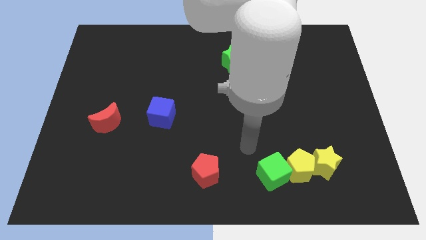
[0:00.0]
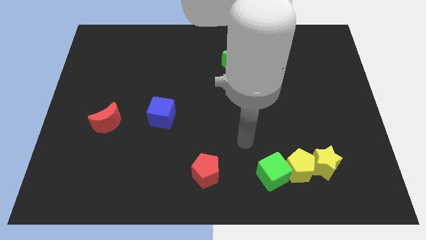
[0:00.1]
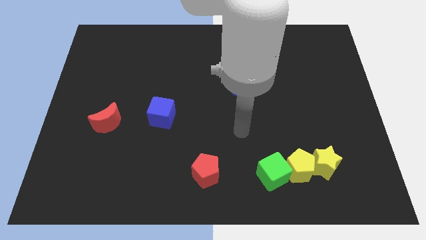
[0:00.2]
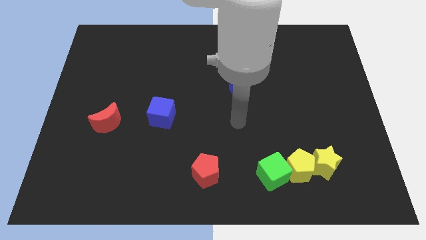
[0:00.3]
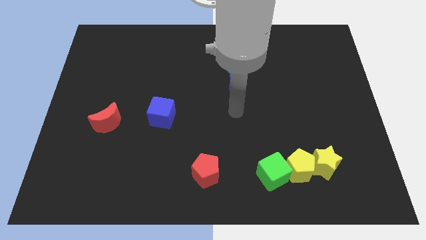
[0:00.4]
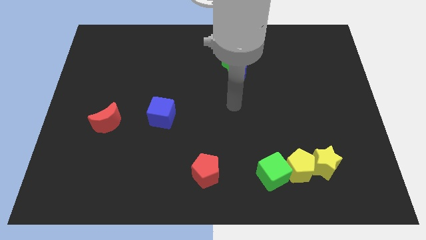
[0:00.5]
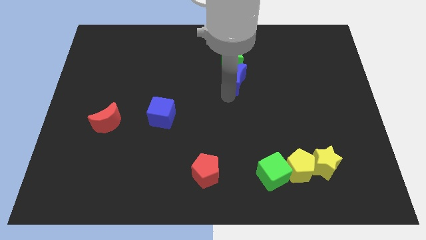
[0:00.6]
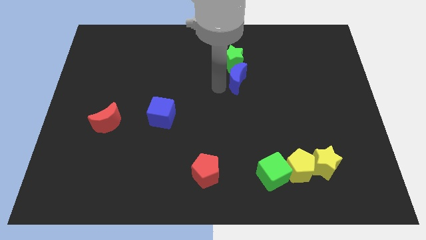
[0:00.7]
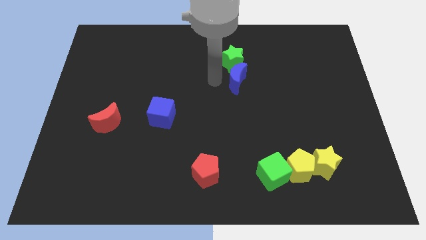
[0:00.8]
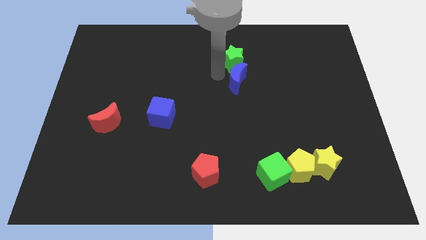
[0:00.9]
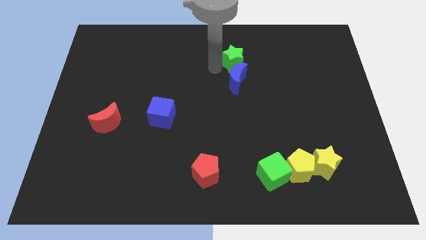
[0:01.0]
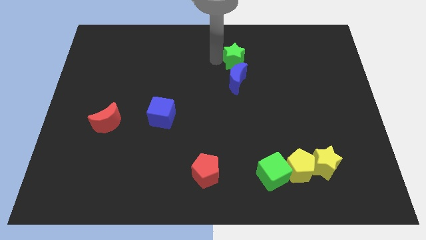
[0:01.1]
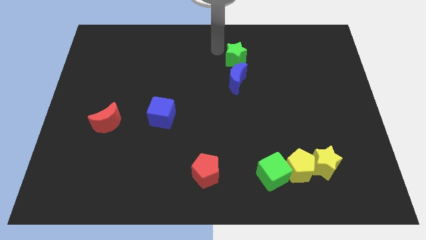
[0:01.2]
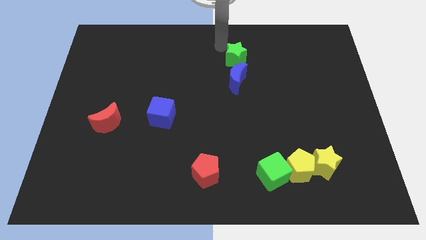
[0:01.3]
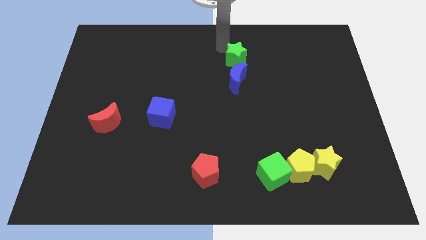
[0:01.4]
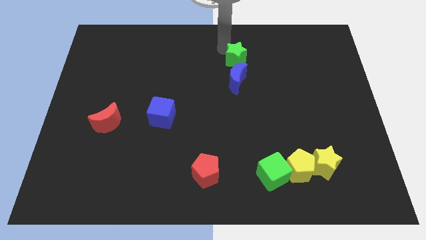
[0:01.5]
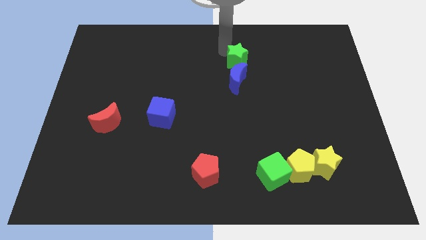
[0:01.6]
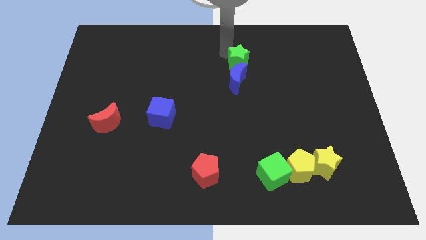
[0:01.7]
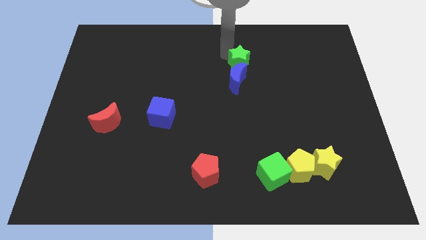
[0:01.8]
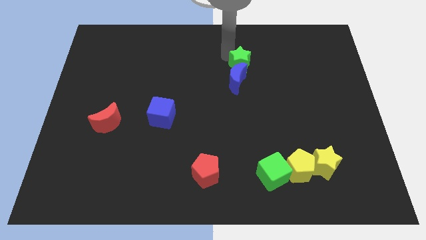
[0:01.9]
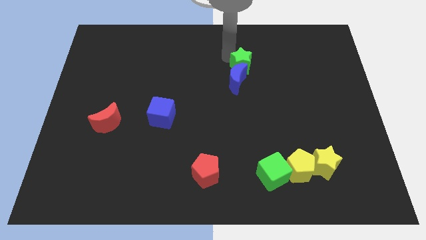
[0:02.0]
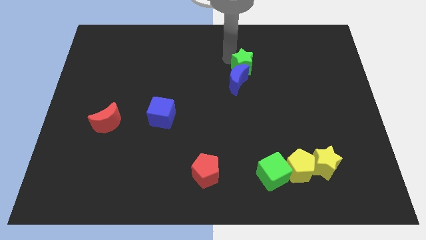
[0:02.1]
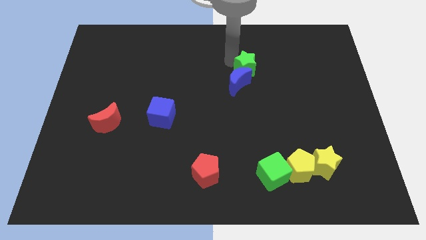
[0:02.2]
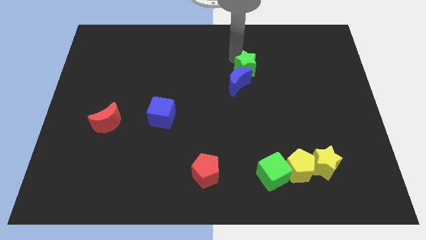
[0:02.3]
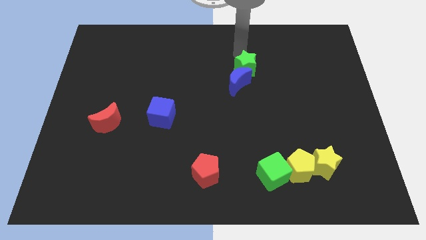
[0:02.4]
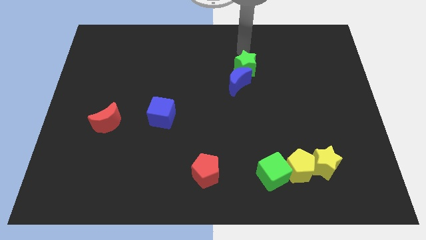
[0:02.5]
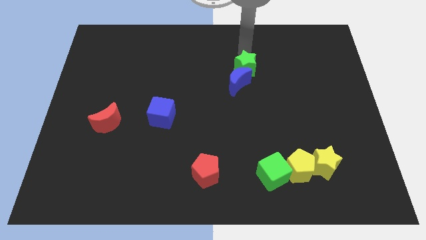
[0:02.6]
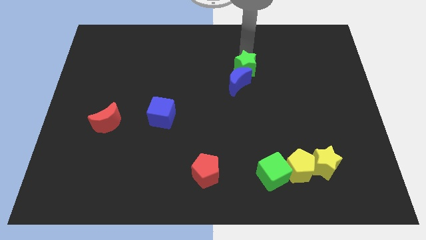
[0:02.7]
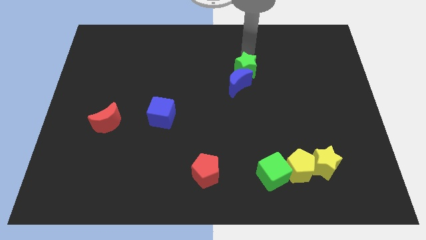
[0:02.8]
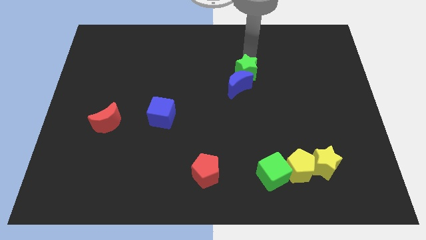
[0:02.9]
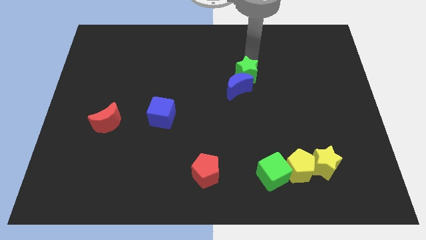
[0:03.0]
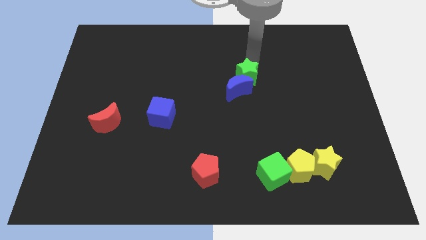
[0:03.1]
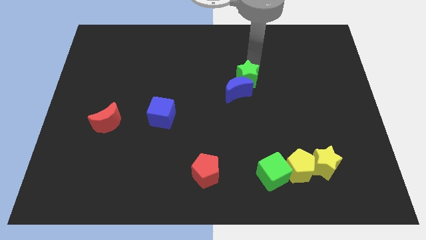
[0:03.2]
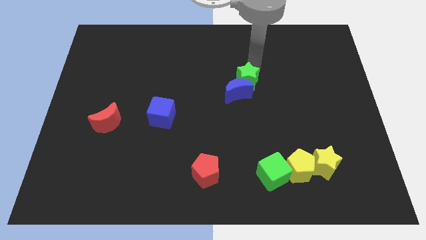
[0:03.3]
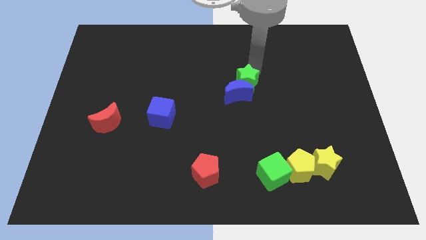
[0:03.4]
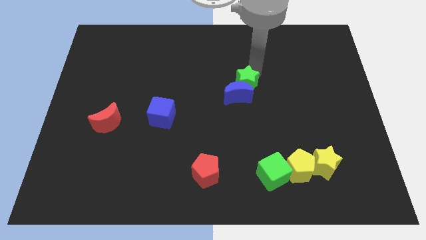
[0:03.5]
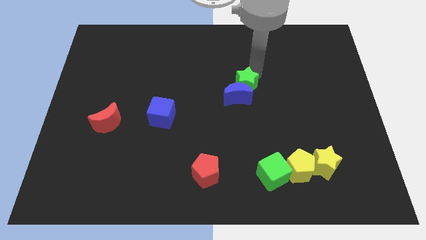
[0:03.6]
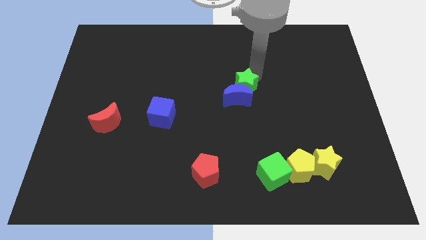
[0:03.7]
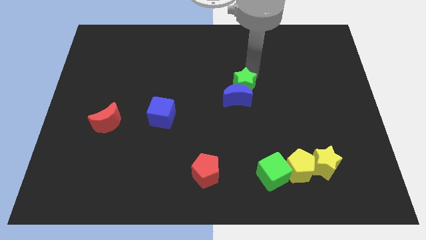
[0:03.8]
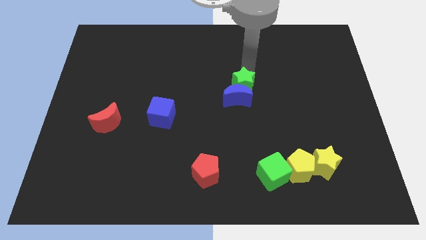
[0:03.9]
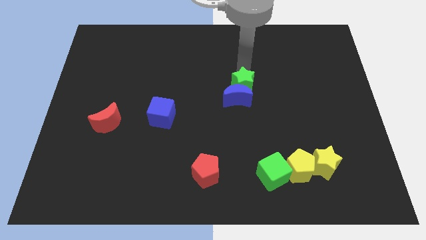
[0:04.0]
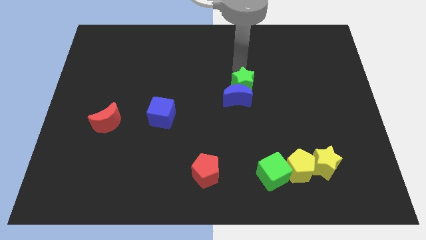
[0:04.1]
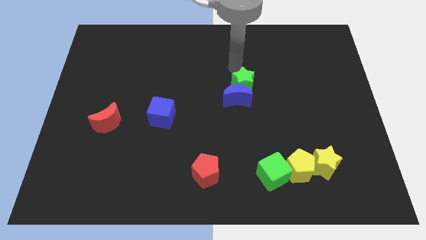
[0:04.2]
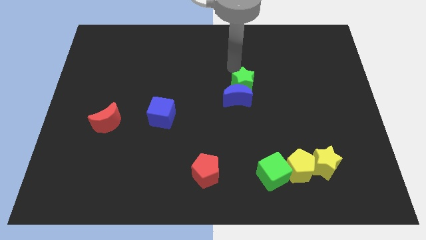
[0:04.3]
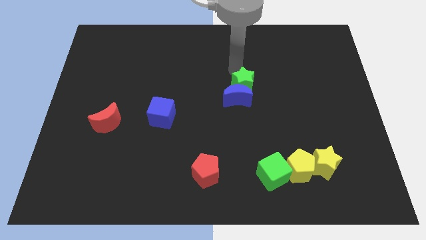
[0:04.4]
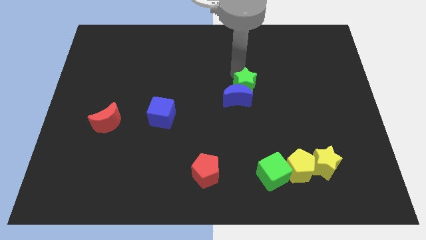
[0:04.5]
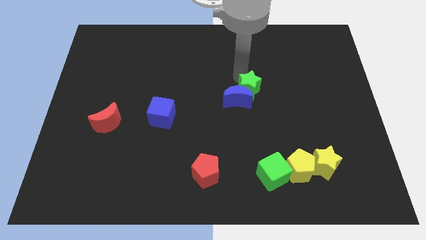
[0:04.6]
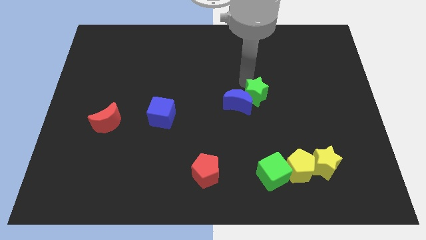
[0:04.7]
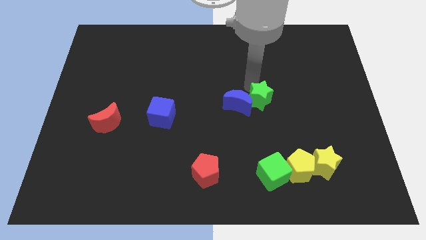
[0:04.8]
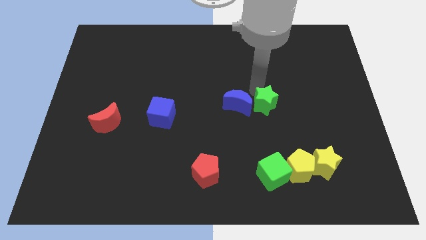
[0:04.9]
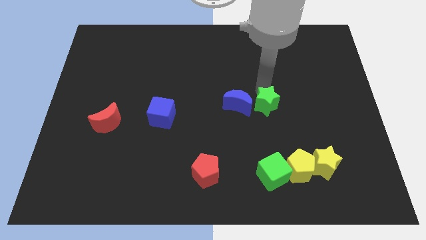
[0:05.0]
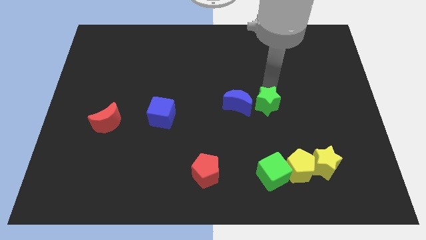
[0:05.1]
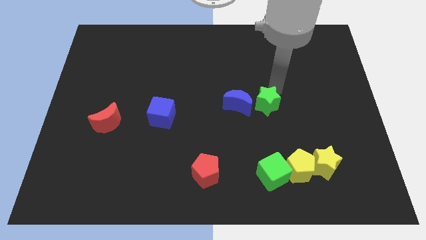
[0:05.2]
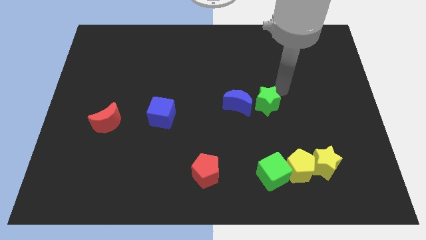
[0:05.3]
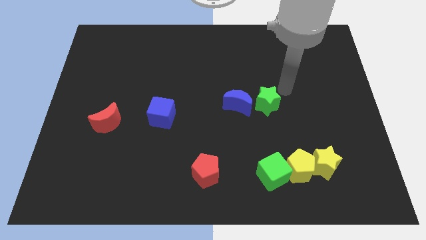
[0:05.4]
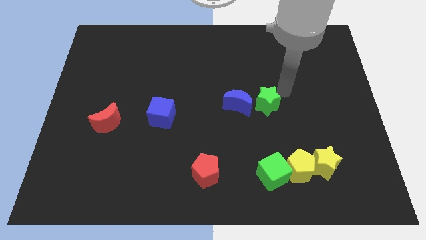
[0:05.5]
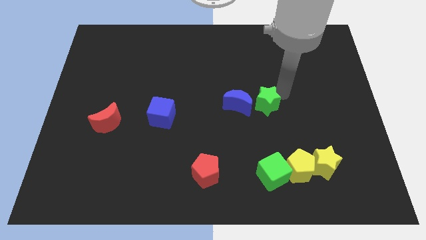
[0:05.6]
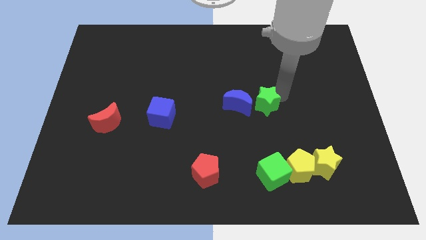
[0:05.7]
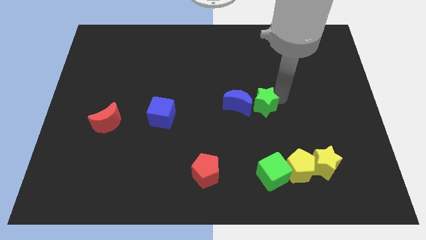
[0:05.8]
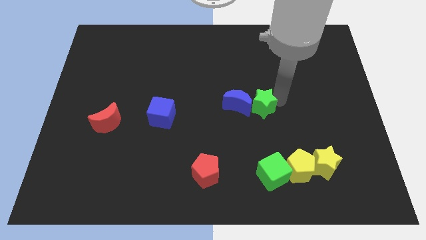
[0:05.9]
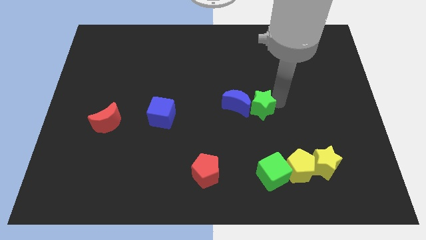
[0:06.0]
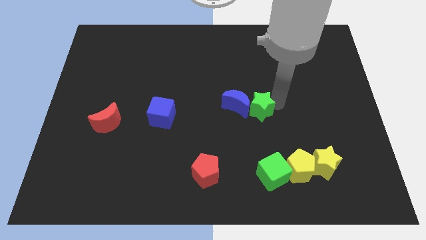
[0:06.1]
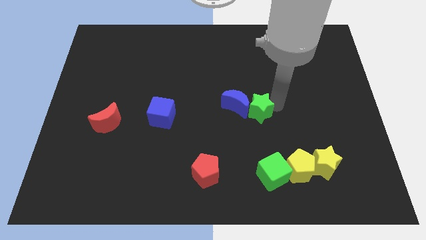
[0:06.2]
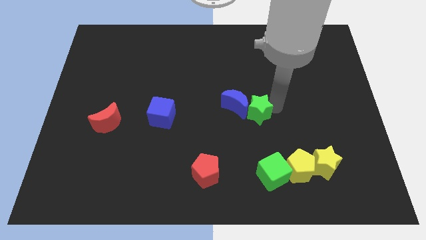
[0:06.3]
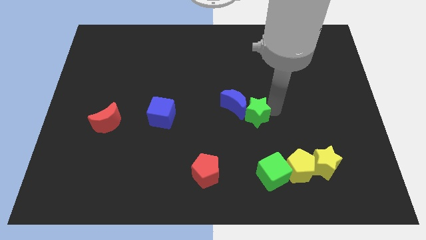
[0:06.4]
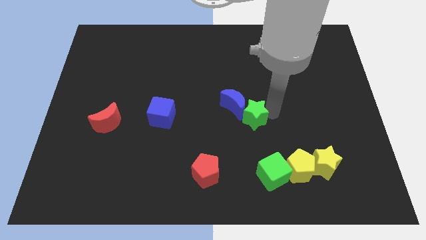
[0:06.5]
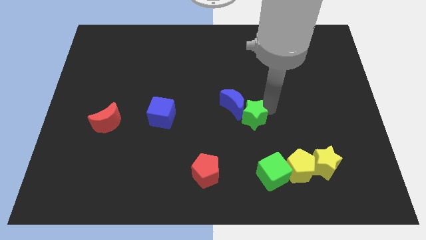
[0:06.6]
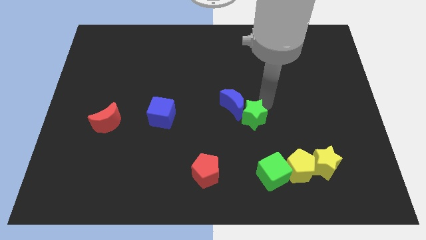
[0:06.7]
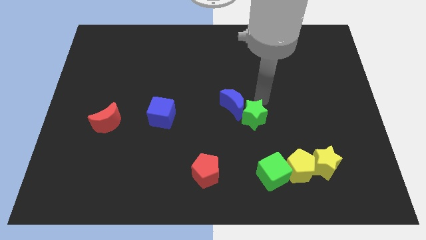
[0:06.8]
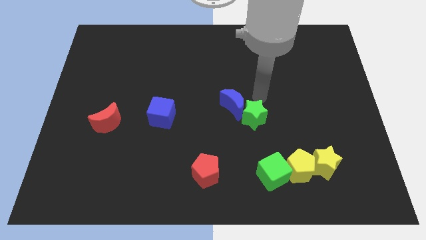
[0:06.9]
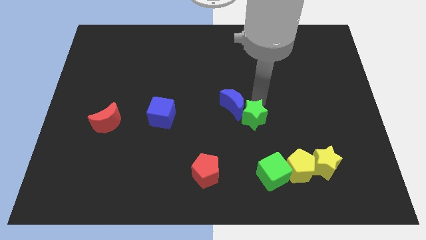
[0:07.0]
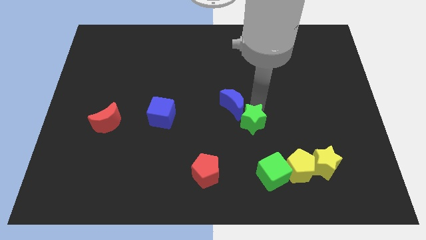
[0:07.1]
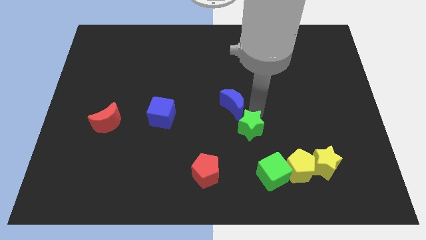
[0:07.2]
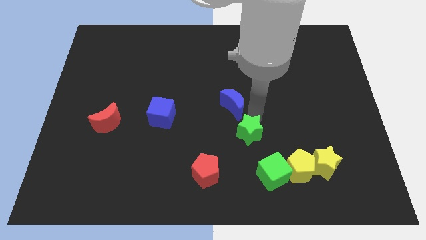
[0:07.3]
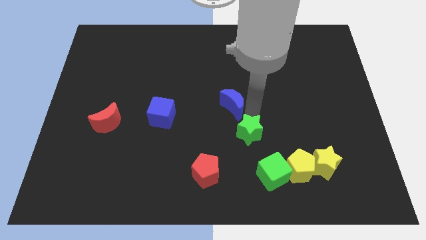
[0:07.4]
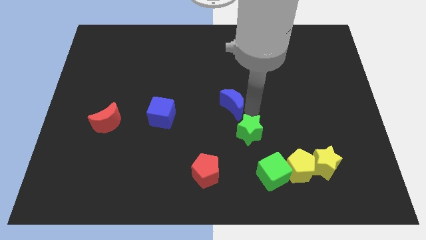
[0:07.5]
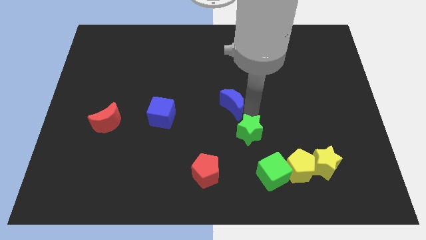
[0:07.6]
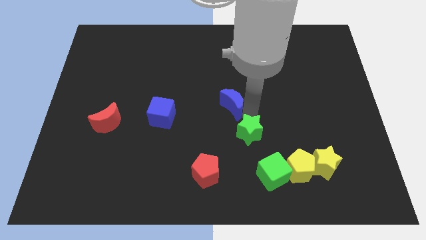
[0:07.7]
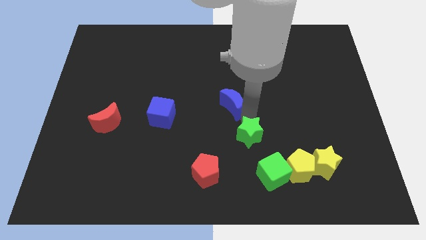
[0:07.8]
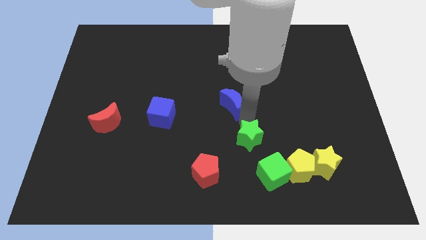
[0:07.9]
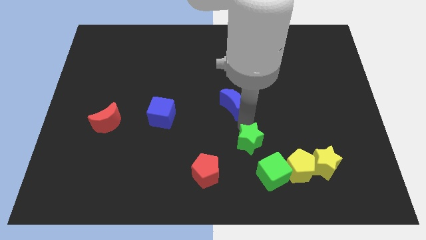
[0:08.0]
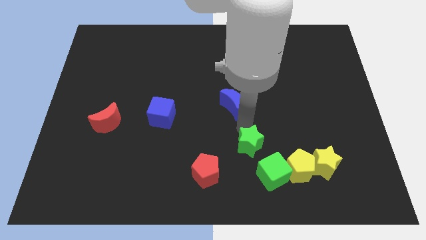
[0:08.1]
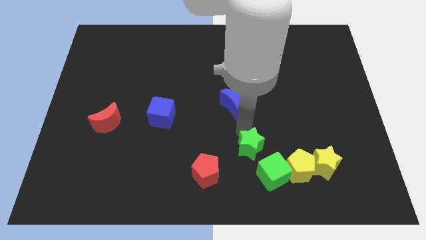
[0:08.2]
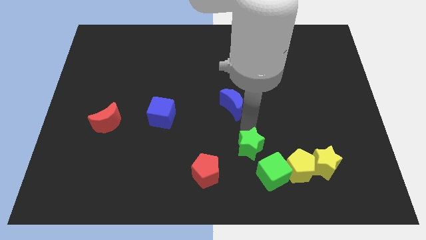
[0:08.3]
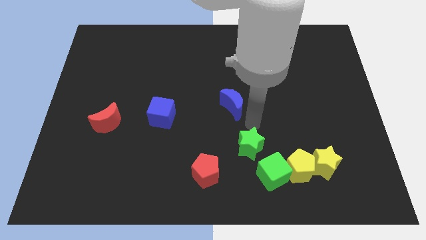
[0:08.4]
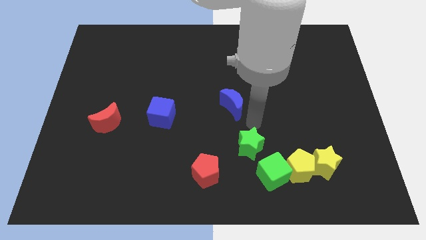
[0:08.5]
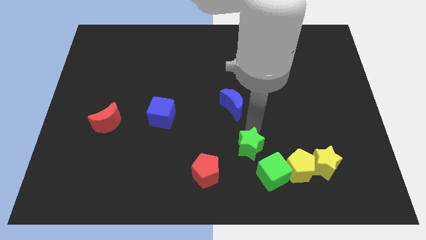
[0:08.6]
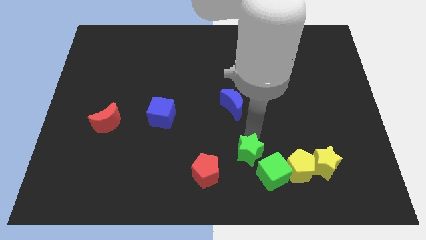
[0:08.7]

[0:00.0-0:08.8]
put the green star to the left of the yellow pentagon
